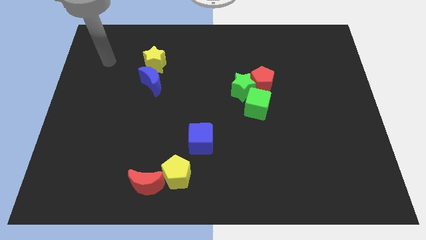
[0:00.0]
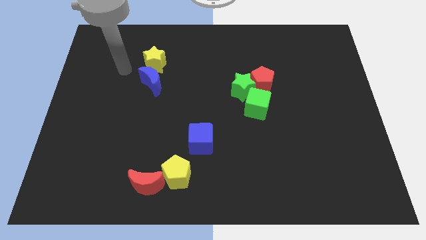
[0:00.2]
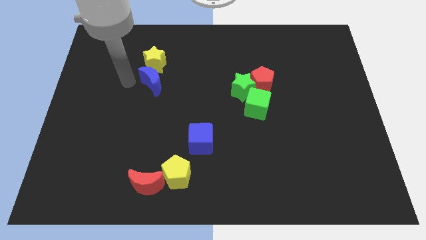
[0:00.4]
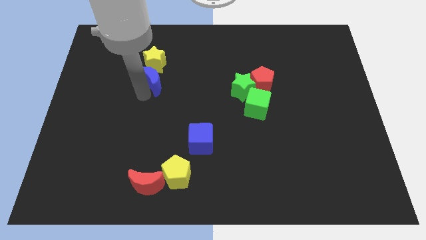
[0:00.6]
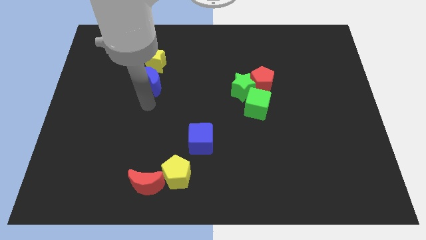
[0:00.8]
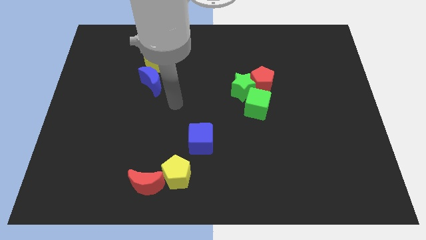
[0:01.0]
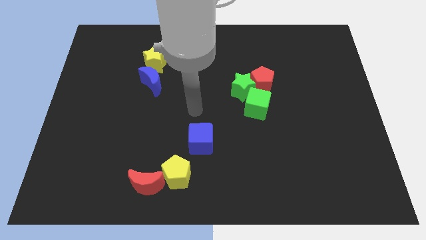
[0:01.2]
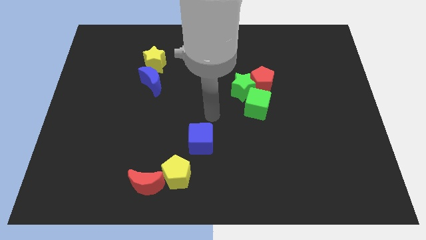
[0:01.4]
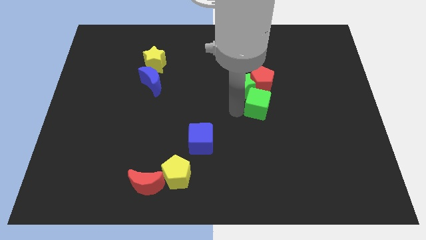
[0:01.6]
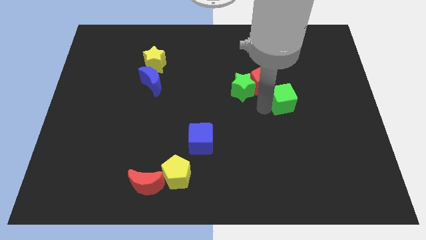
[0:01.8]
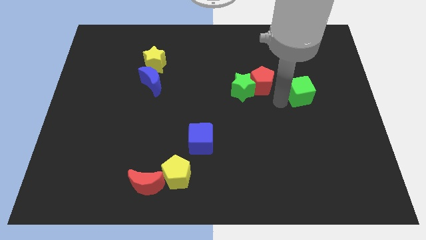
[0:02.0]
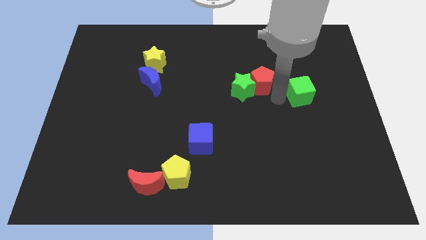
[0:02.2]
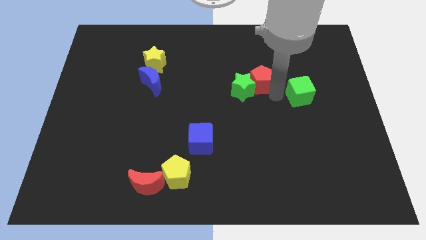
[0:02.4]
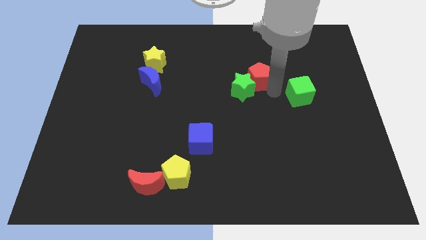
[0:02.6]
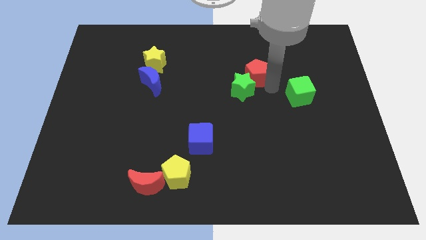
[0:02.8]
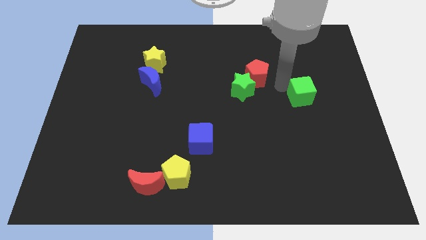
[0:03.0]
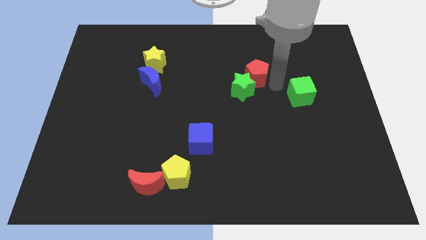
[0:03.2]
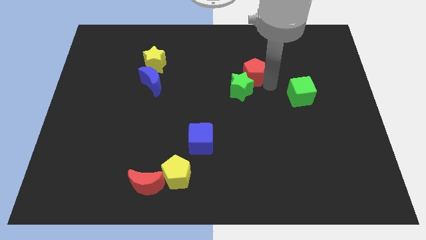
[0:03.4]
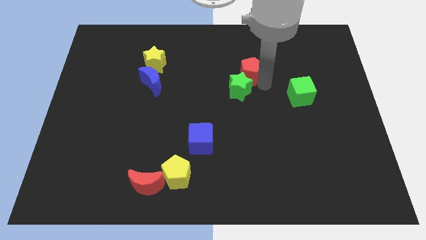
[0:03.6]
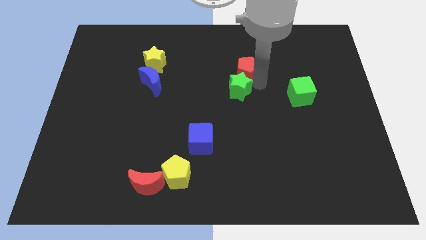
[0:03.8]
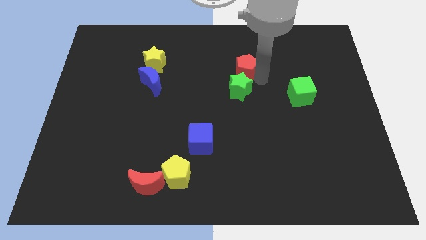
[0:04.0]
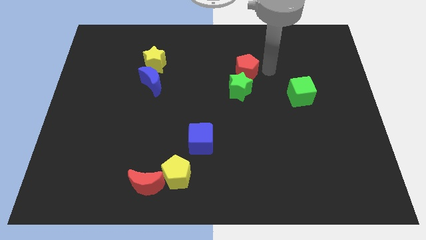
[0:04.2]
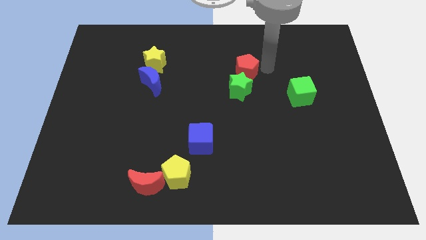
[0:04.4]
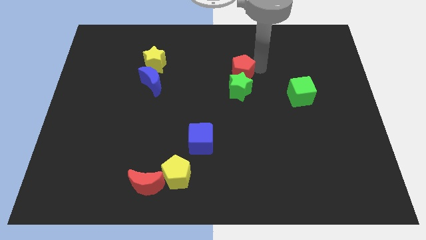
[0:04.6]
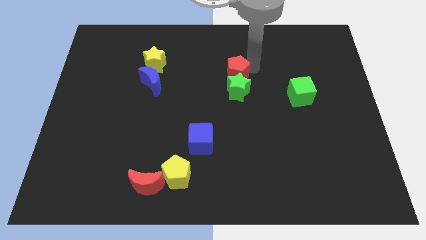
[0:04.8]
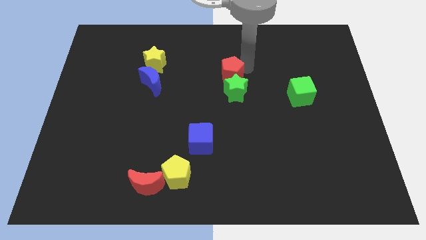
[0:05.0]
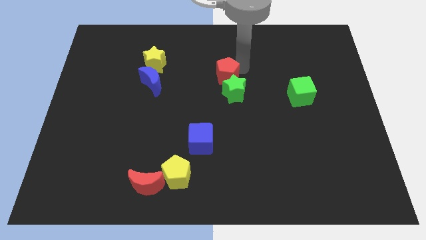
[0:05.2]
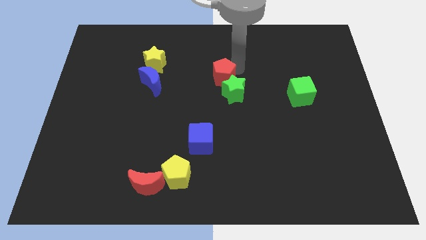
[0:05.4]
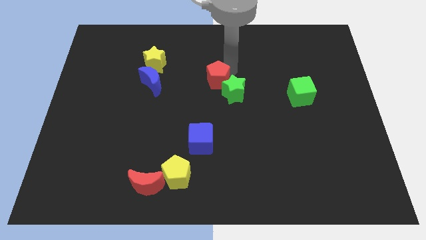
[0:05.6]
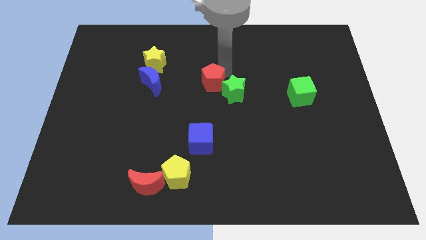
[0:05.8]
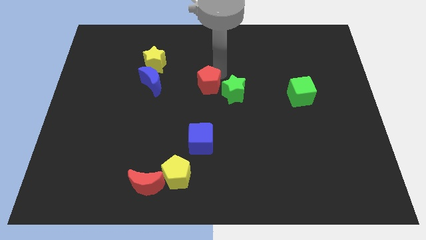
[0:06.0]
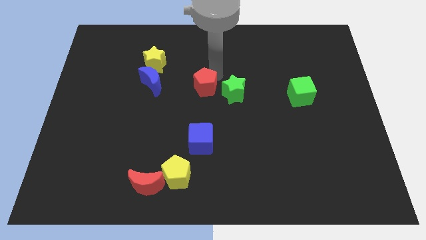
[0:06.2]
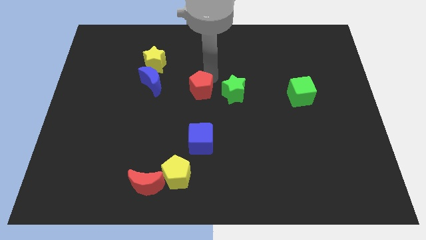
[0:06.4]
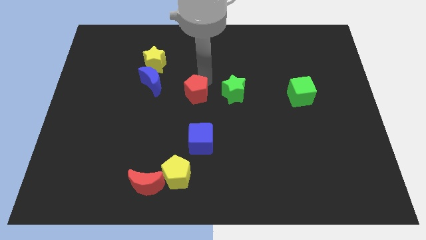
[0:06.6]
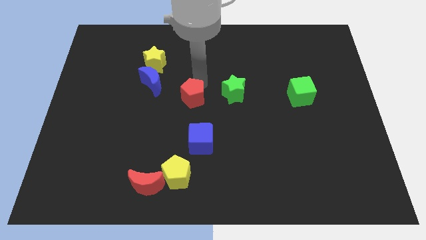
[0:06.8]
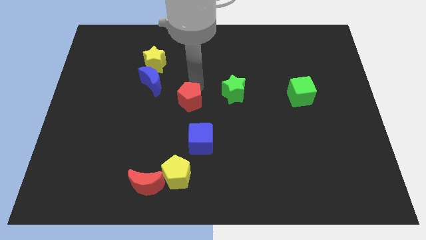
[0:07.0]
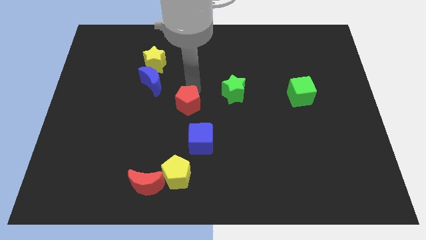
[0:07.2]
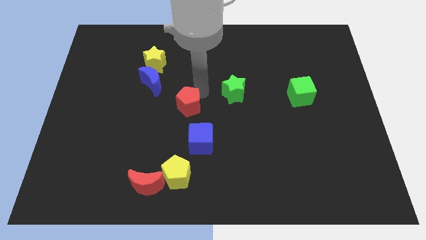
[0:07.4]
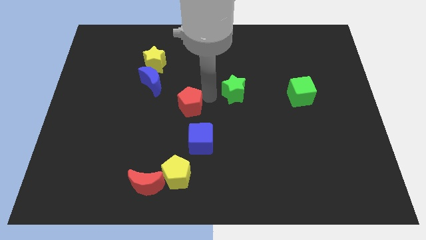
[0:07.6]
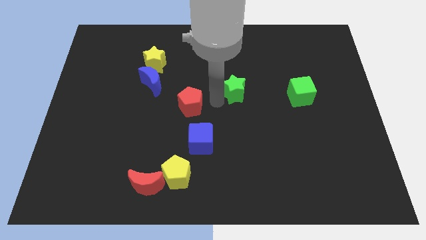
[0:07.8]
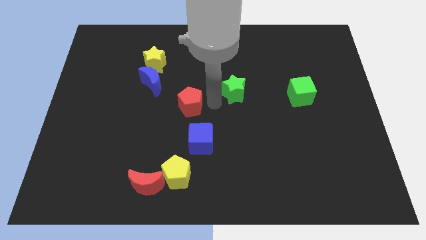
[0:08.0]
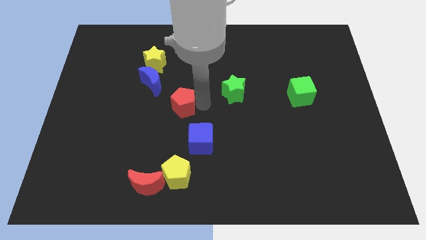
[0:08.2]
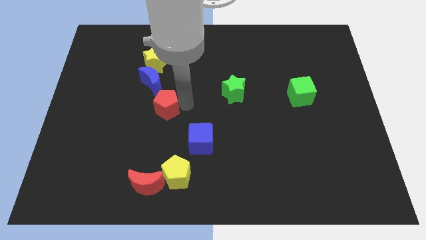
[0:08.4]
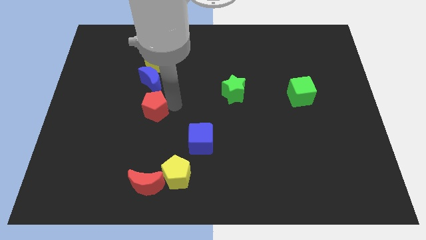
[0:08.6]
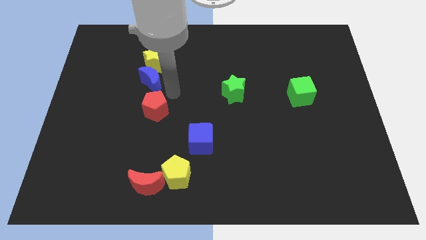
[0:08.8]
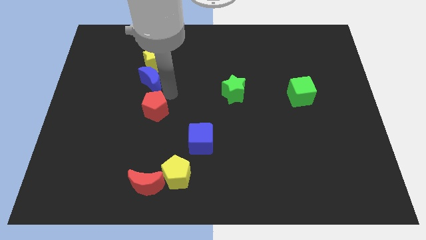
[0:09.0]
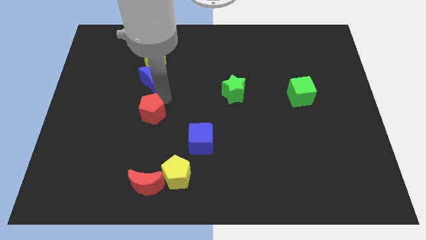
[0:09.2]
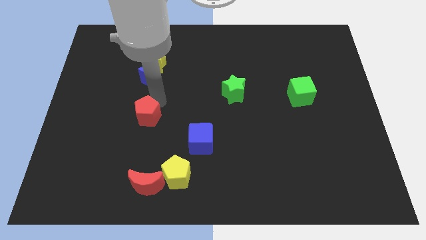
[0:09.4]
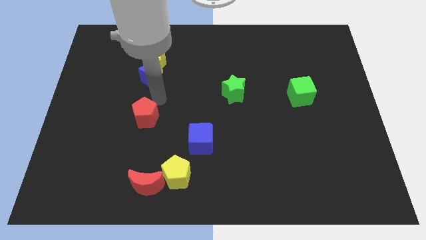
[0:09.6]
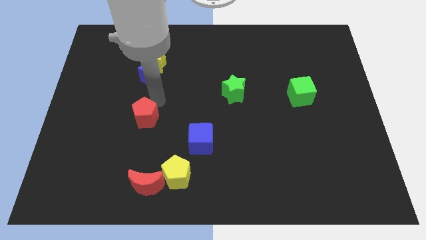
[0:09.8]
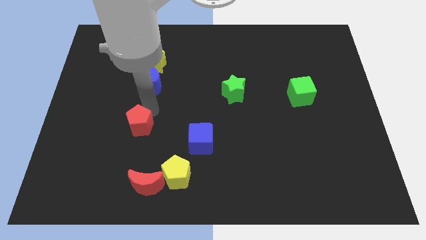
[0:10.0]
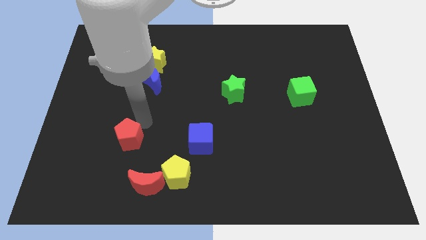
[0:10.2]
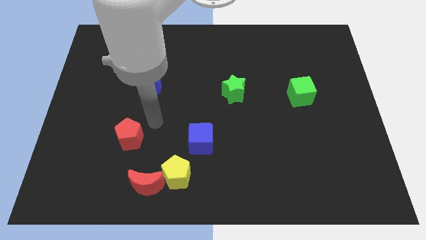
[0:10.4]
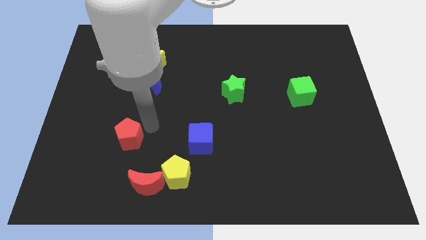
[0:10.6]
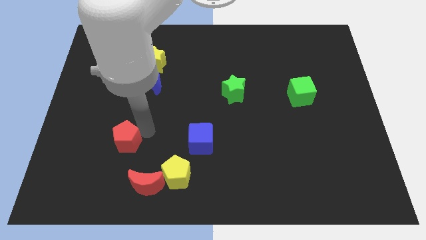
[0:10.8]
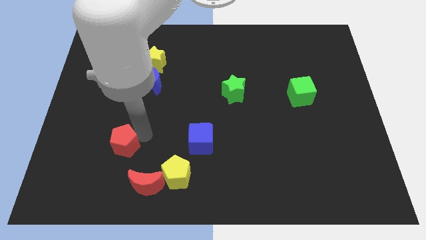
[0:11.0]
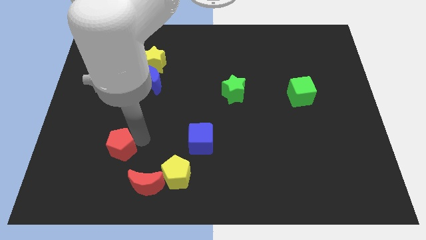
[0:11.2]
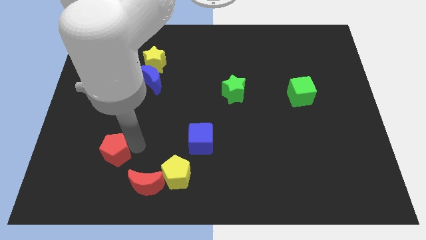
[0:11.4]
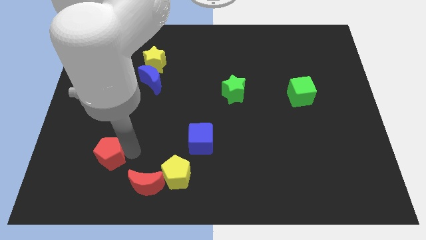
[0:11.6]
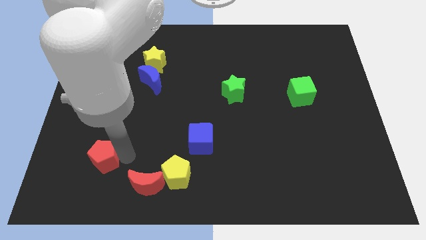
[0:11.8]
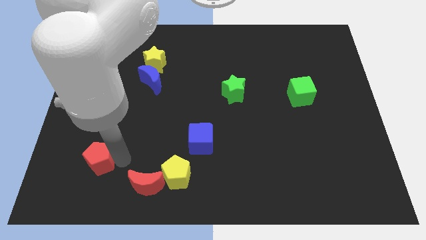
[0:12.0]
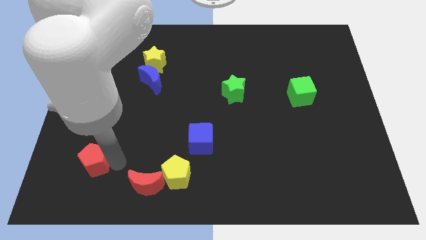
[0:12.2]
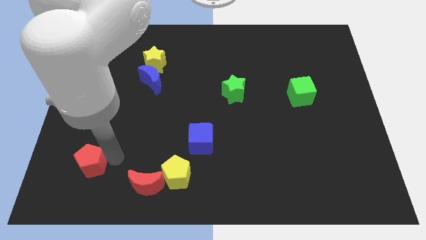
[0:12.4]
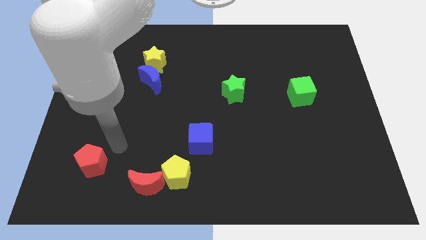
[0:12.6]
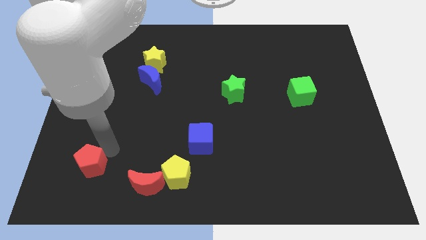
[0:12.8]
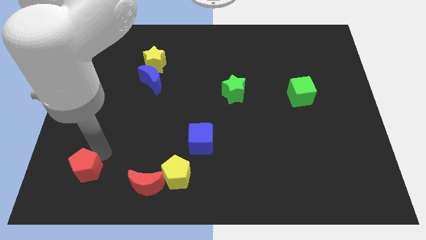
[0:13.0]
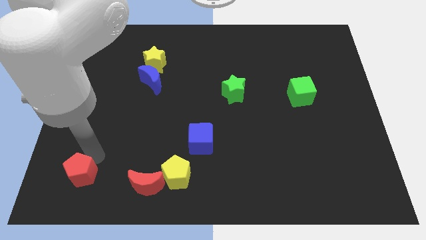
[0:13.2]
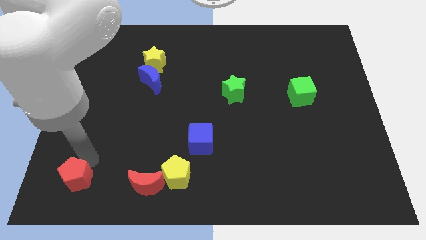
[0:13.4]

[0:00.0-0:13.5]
move the red pentagon to the bottom left corner
